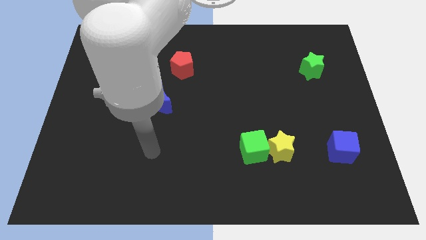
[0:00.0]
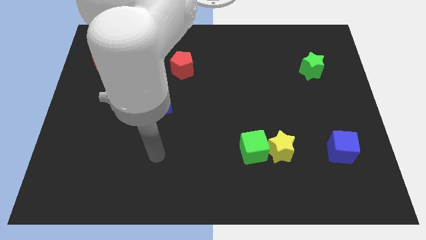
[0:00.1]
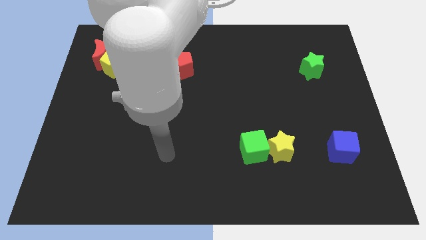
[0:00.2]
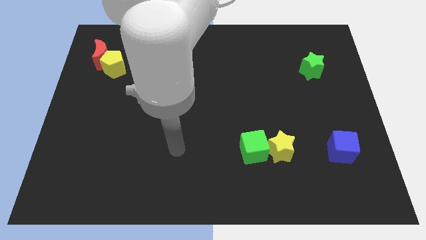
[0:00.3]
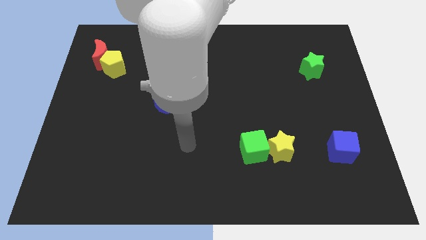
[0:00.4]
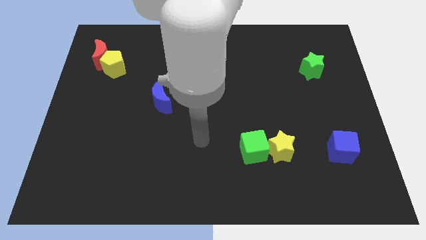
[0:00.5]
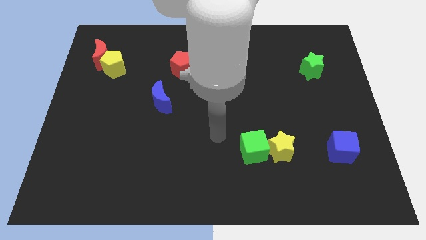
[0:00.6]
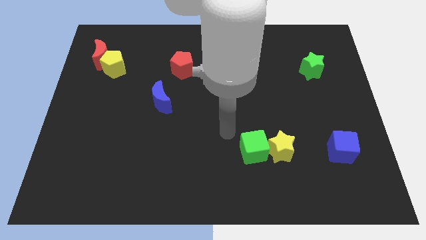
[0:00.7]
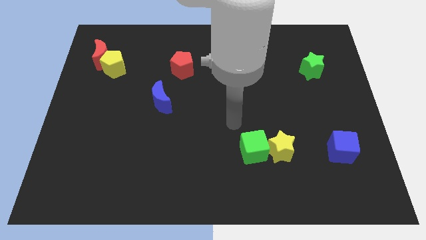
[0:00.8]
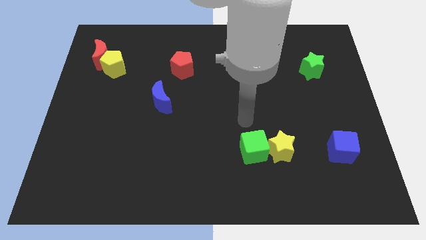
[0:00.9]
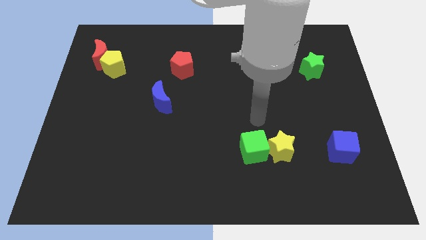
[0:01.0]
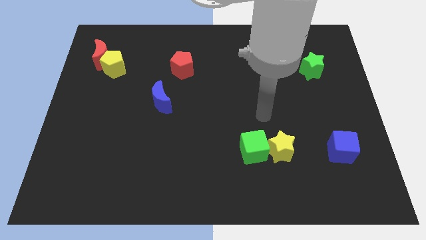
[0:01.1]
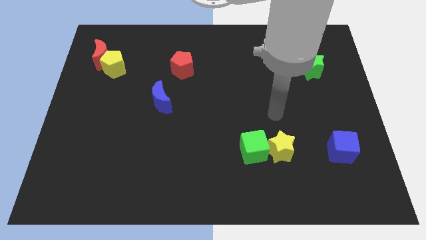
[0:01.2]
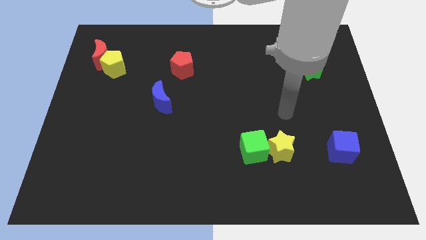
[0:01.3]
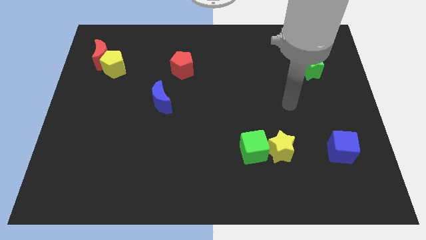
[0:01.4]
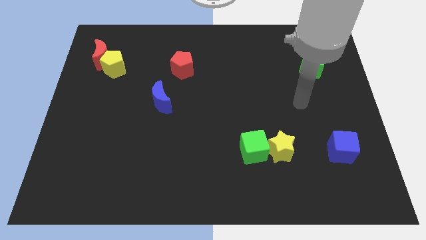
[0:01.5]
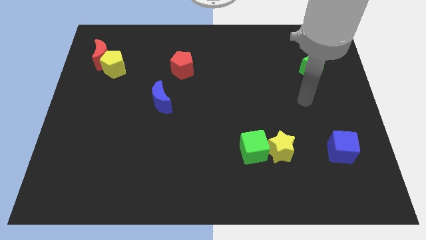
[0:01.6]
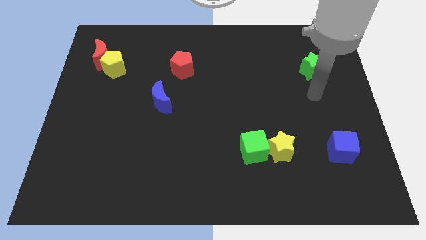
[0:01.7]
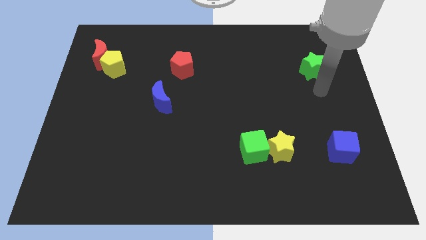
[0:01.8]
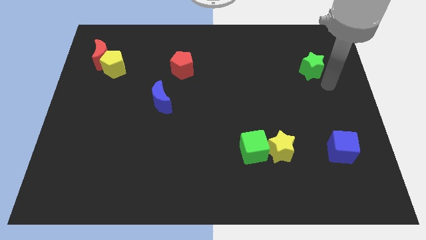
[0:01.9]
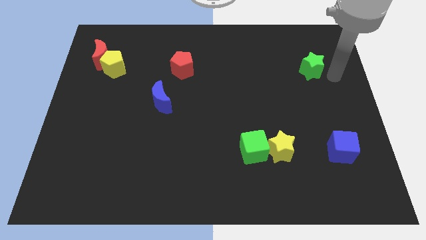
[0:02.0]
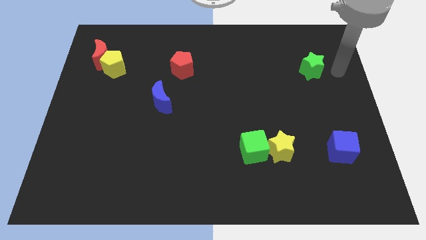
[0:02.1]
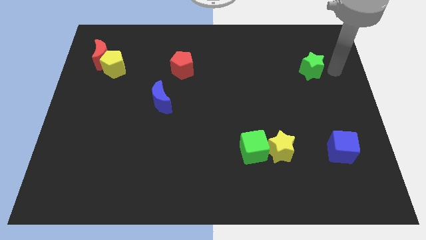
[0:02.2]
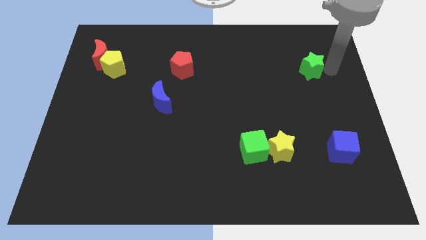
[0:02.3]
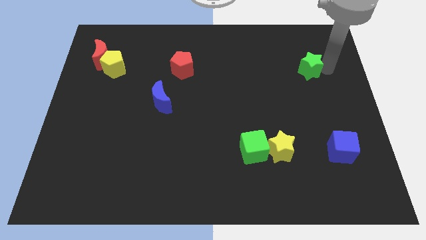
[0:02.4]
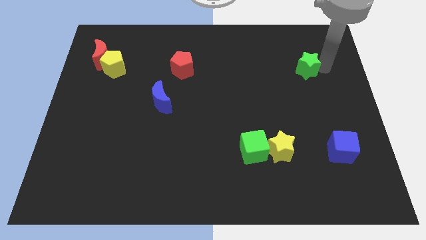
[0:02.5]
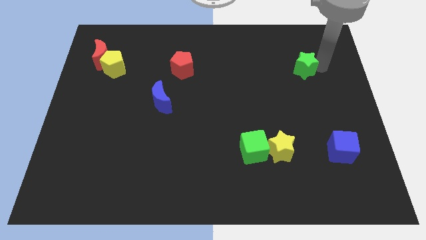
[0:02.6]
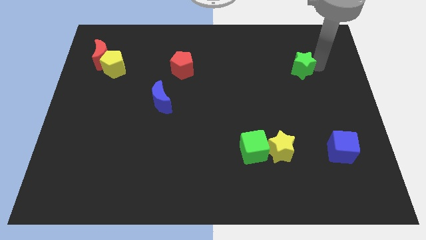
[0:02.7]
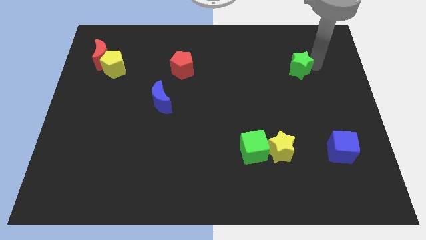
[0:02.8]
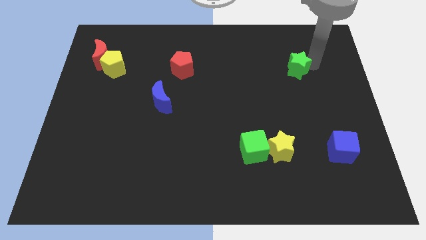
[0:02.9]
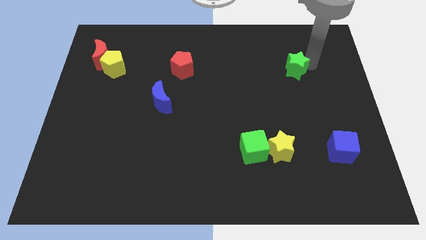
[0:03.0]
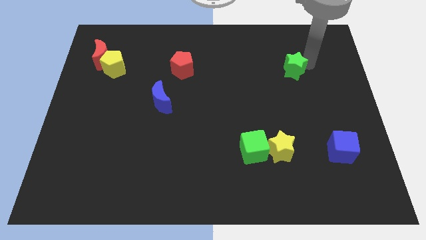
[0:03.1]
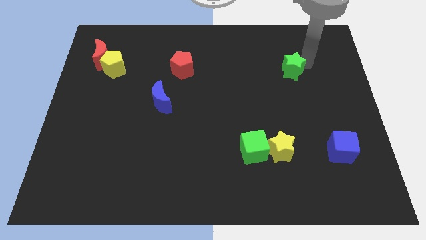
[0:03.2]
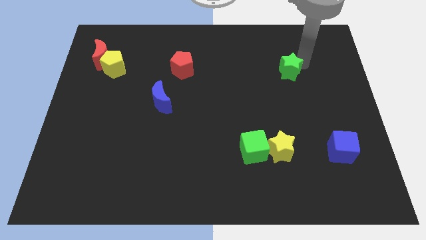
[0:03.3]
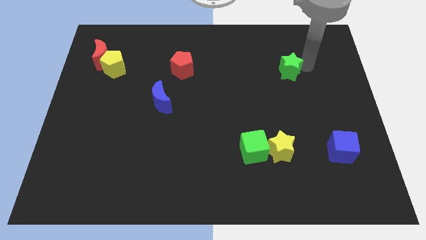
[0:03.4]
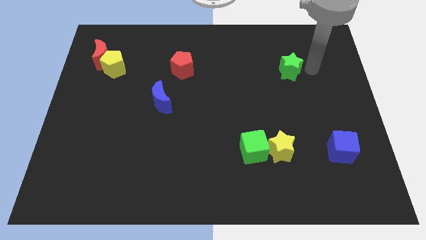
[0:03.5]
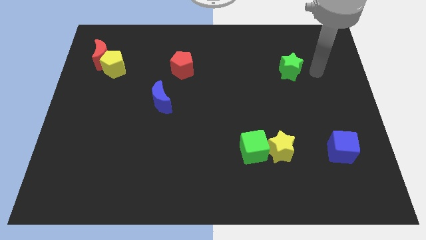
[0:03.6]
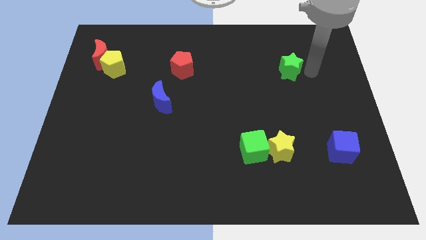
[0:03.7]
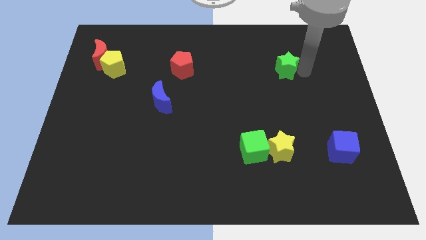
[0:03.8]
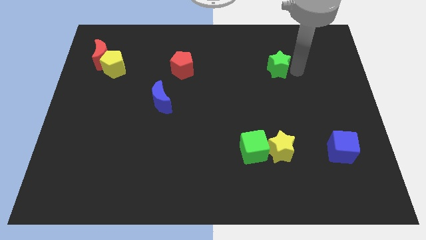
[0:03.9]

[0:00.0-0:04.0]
push the green star left a bit

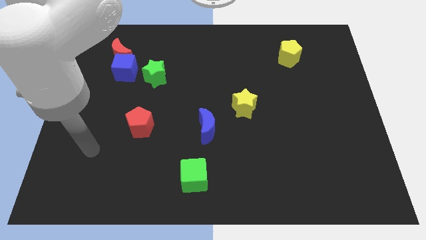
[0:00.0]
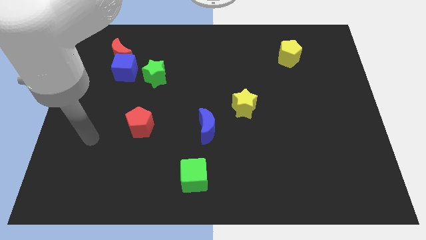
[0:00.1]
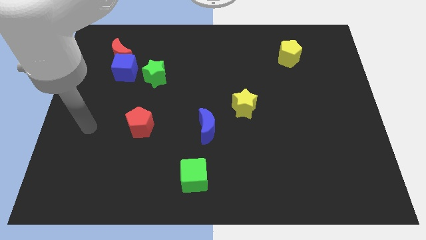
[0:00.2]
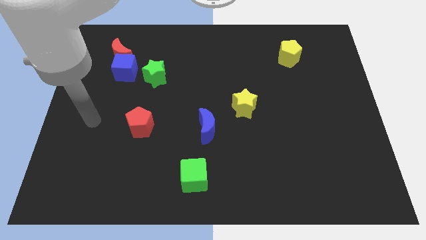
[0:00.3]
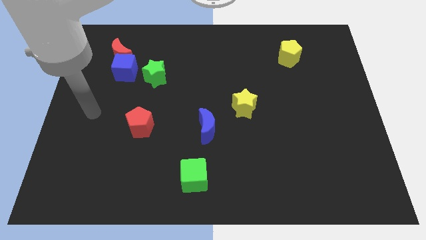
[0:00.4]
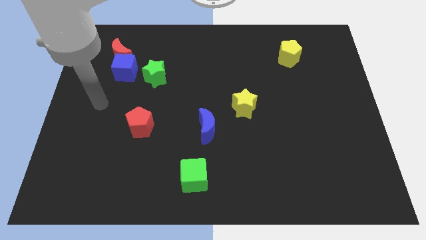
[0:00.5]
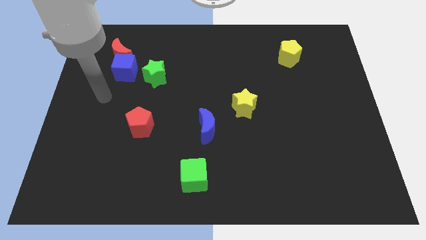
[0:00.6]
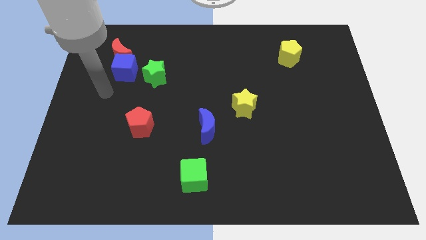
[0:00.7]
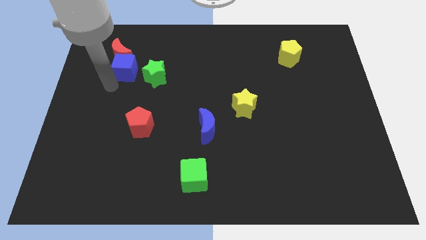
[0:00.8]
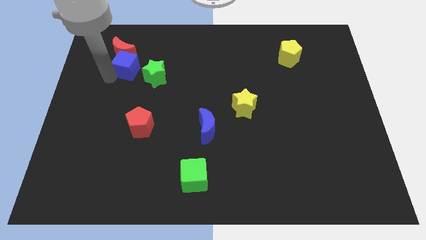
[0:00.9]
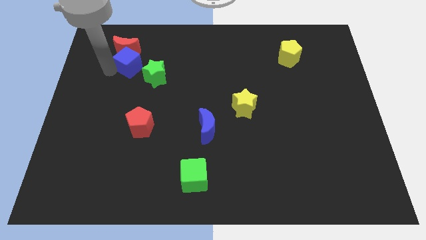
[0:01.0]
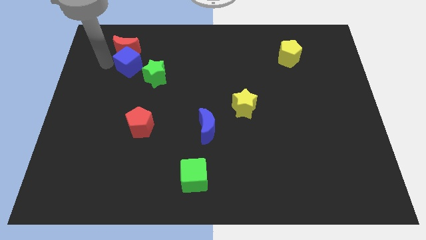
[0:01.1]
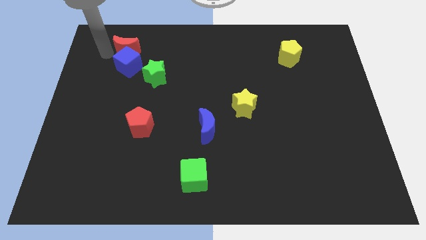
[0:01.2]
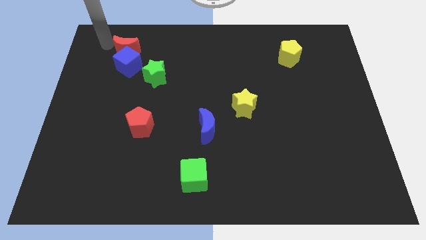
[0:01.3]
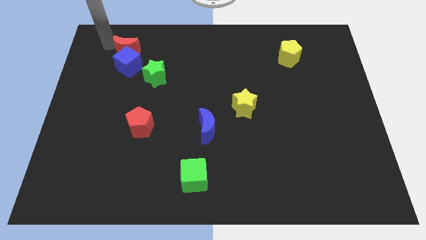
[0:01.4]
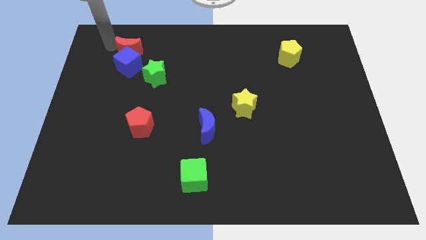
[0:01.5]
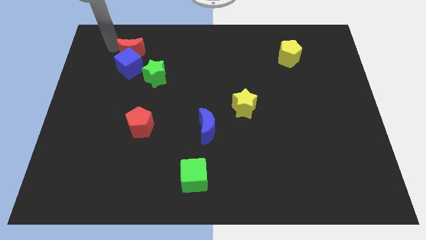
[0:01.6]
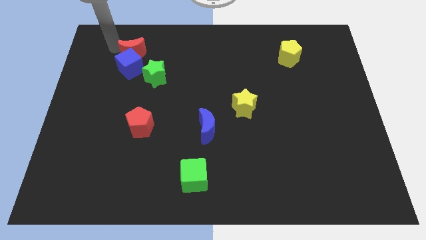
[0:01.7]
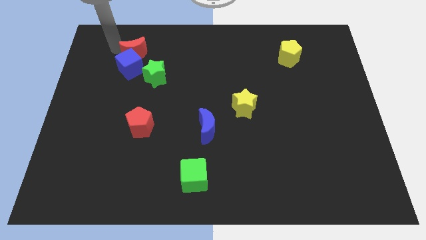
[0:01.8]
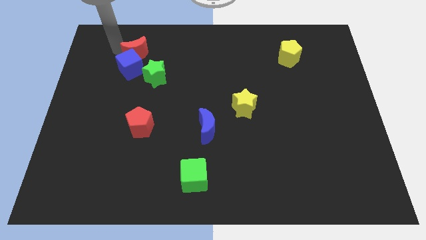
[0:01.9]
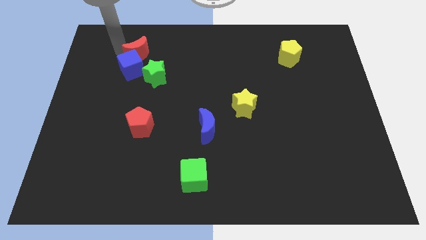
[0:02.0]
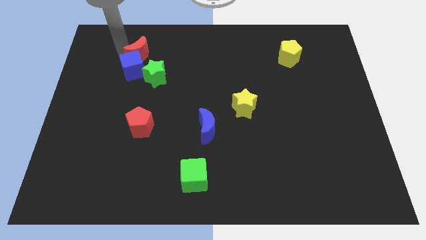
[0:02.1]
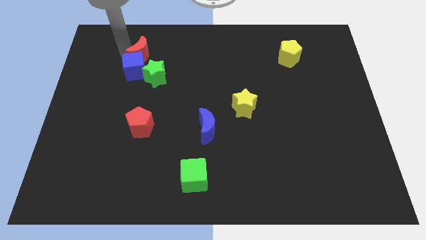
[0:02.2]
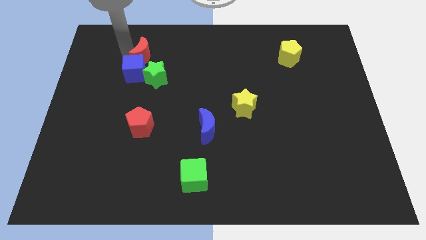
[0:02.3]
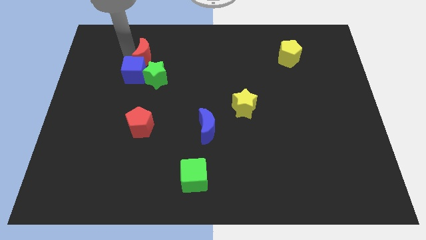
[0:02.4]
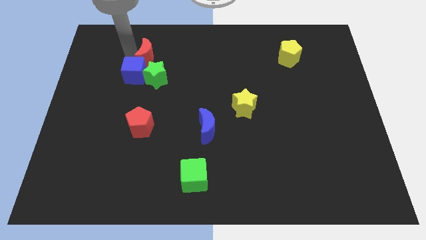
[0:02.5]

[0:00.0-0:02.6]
slide the red moon to the right a bit

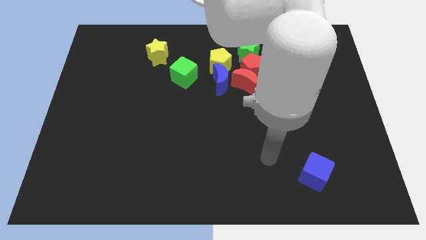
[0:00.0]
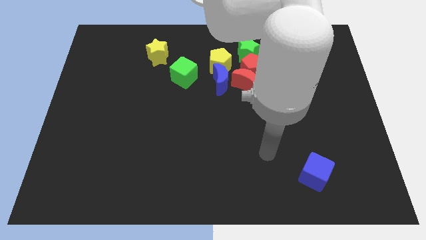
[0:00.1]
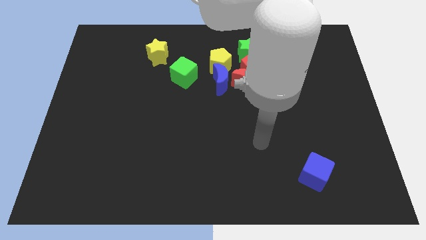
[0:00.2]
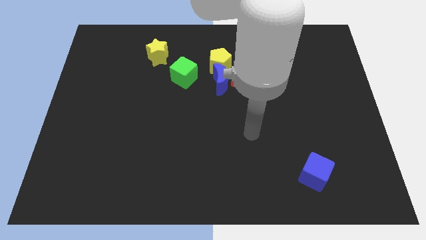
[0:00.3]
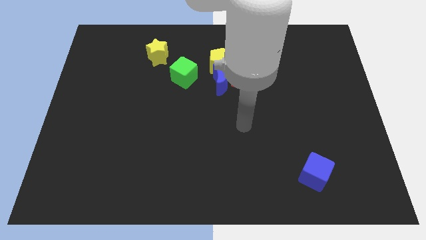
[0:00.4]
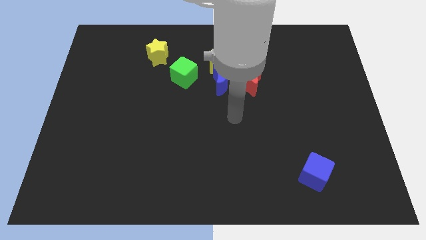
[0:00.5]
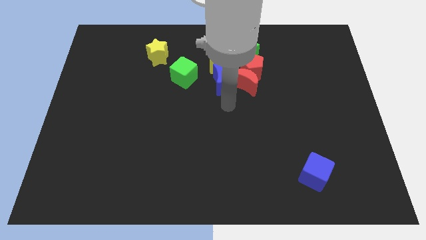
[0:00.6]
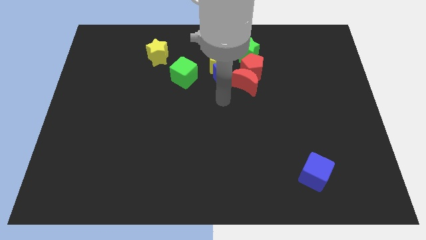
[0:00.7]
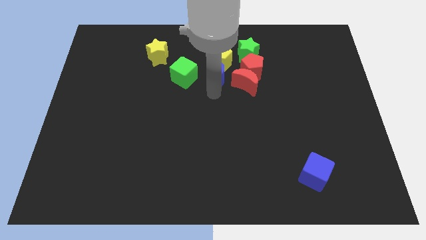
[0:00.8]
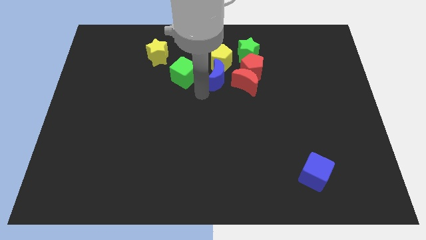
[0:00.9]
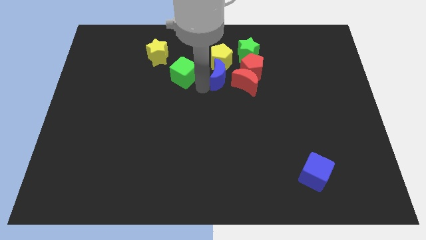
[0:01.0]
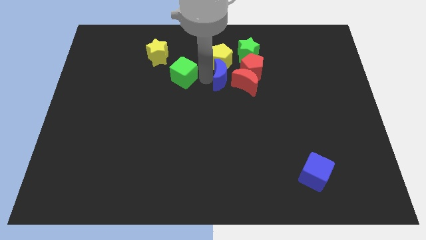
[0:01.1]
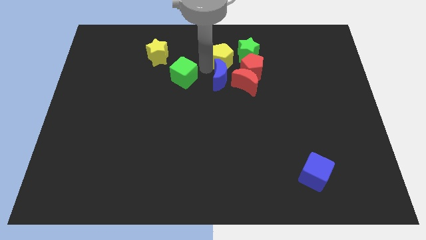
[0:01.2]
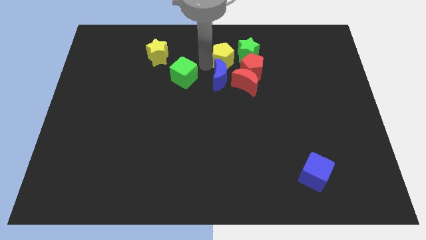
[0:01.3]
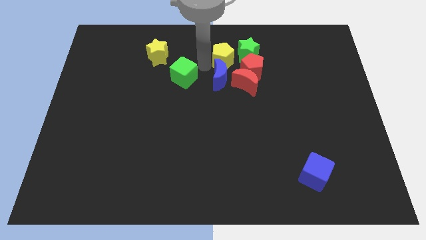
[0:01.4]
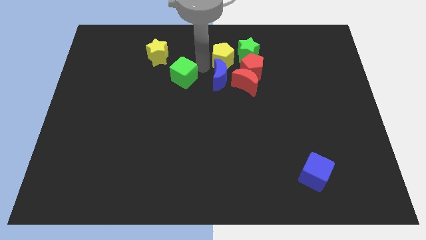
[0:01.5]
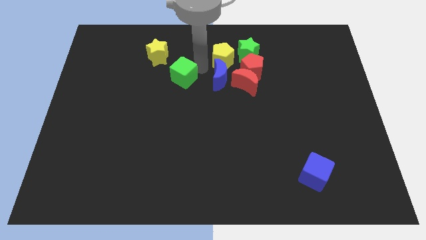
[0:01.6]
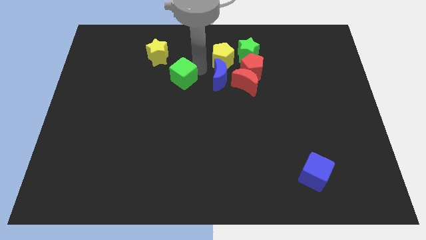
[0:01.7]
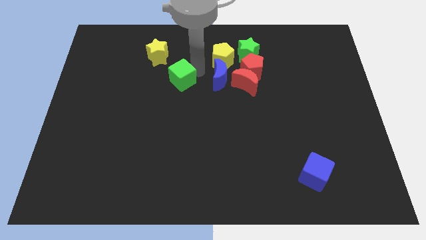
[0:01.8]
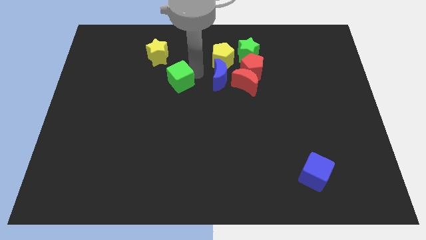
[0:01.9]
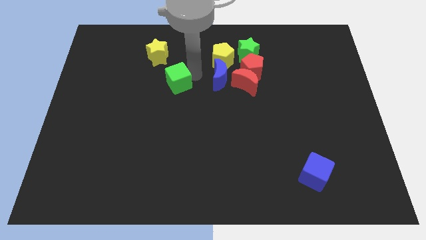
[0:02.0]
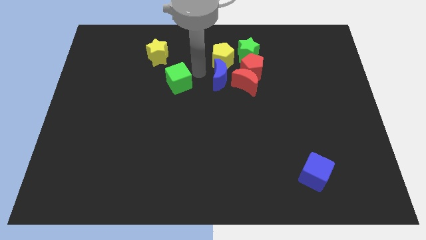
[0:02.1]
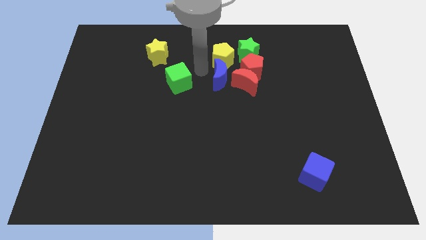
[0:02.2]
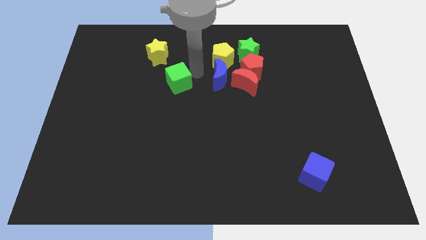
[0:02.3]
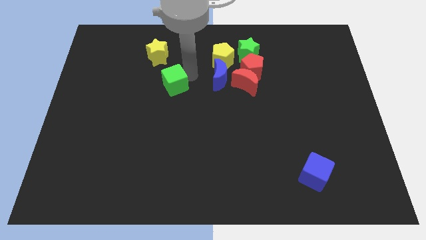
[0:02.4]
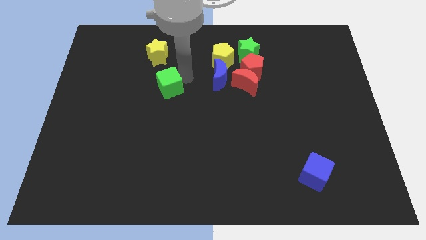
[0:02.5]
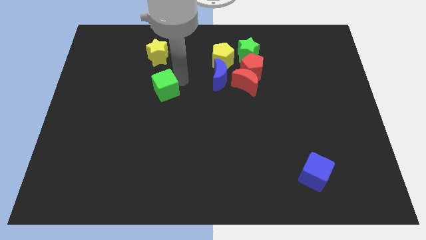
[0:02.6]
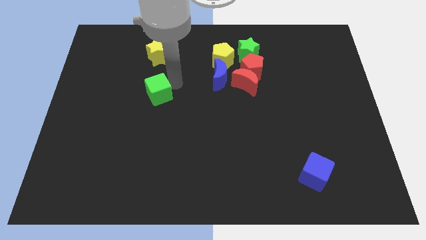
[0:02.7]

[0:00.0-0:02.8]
slide the green cube downwards and then to the left slightly
